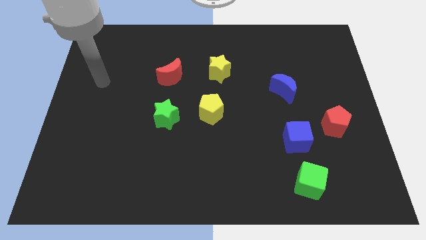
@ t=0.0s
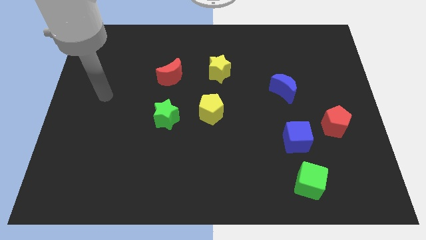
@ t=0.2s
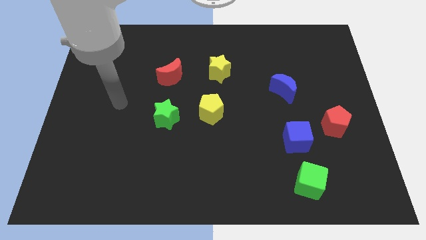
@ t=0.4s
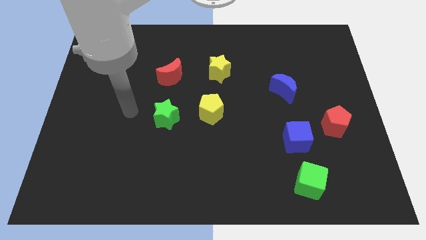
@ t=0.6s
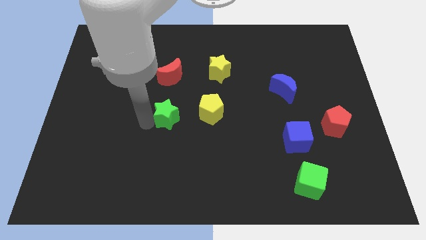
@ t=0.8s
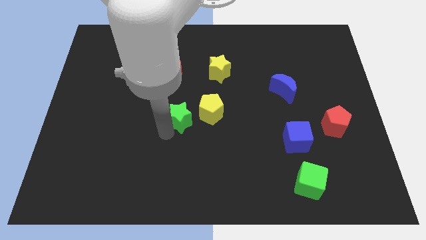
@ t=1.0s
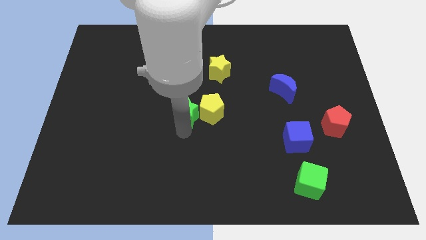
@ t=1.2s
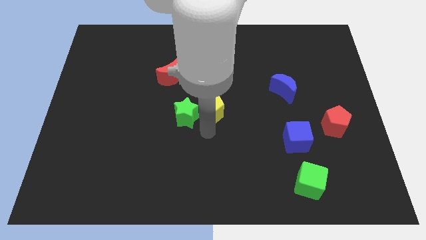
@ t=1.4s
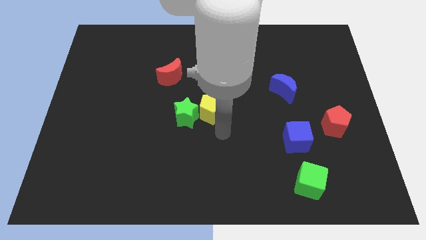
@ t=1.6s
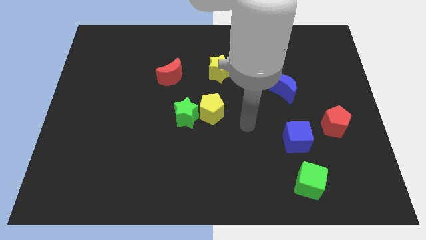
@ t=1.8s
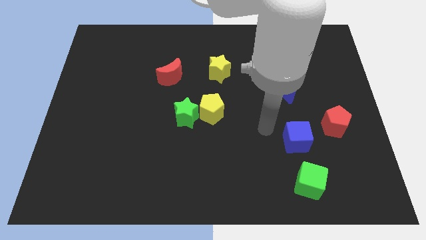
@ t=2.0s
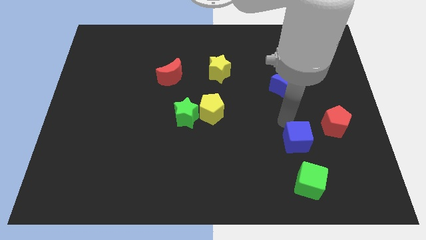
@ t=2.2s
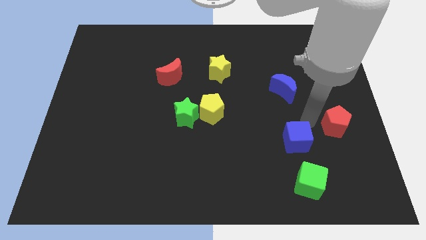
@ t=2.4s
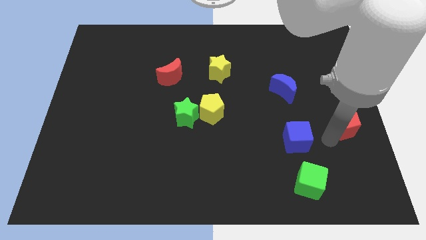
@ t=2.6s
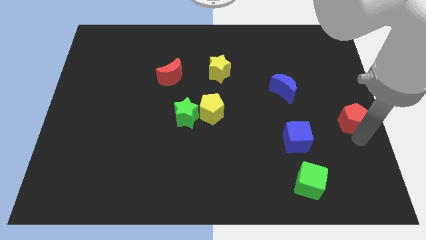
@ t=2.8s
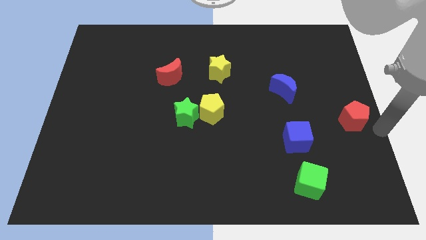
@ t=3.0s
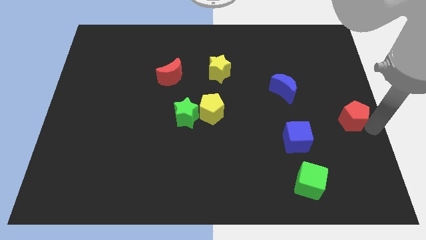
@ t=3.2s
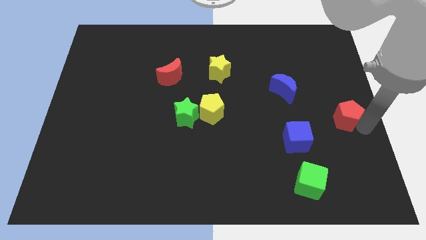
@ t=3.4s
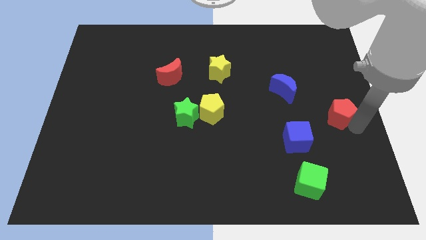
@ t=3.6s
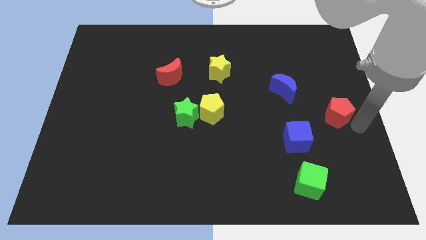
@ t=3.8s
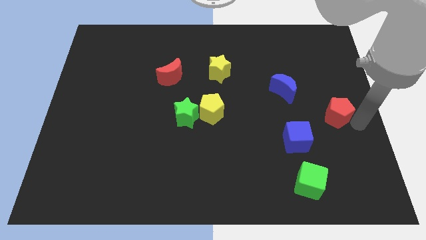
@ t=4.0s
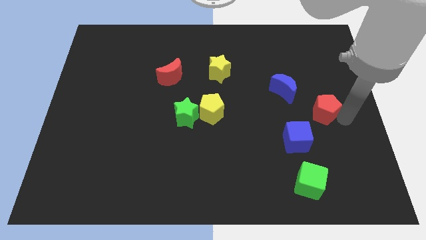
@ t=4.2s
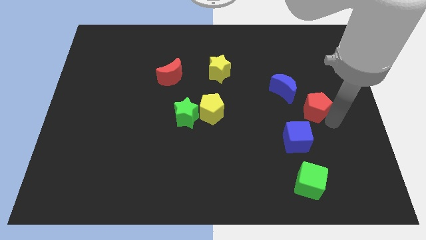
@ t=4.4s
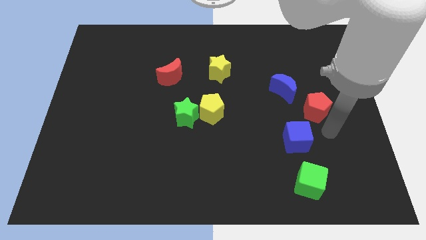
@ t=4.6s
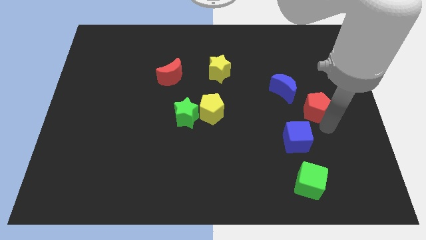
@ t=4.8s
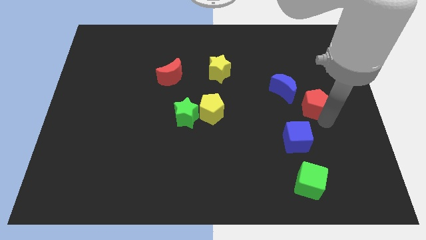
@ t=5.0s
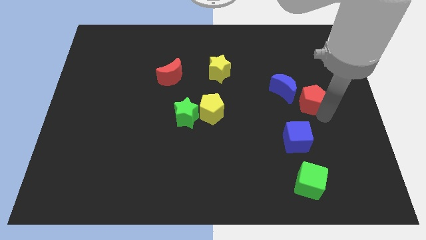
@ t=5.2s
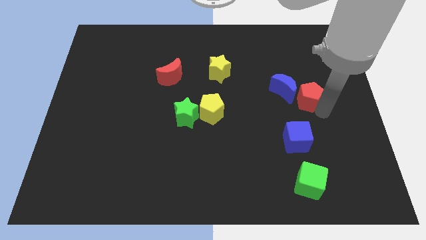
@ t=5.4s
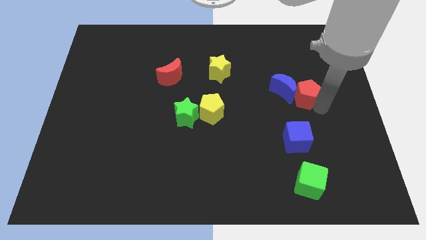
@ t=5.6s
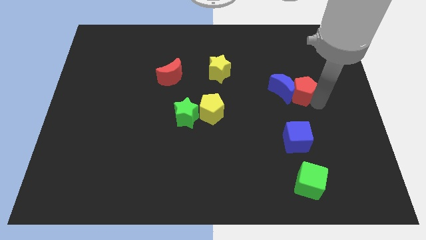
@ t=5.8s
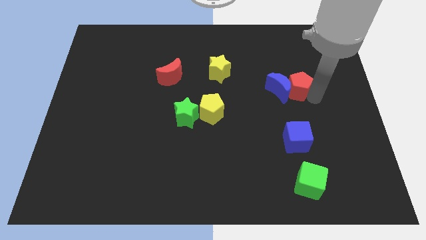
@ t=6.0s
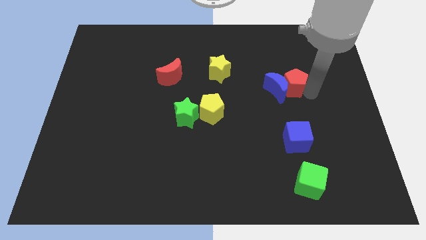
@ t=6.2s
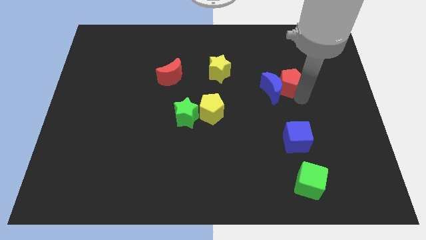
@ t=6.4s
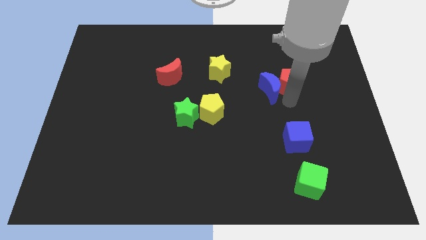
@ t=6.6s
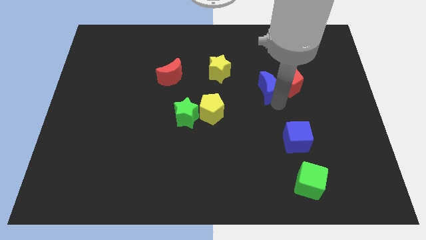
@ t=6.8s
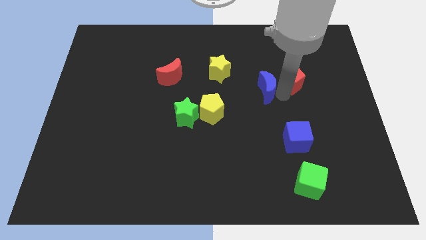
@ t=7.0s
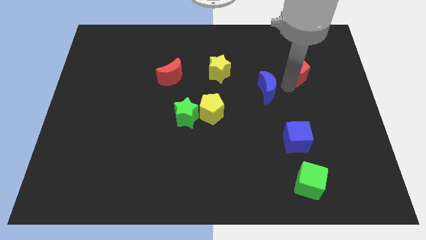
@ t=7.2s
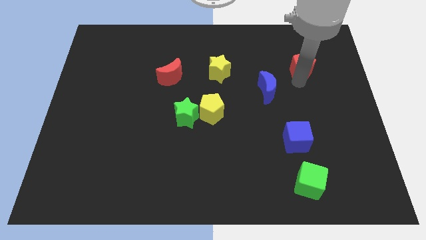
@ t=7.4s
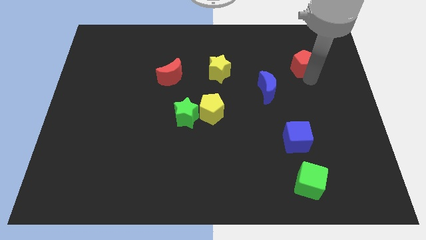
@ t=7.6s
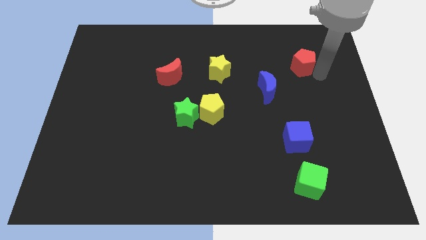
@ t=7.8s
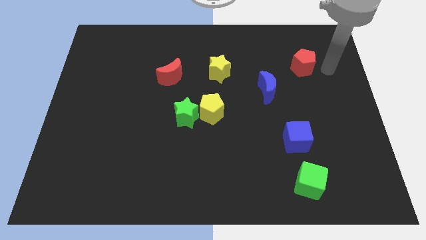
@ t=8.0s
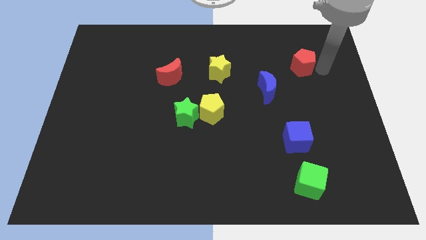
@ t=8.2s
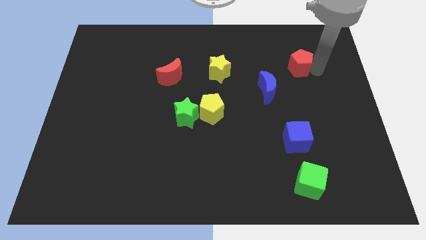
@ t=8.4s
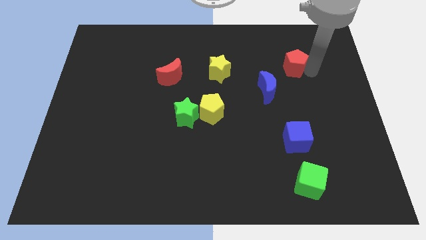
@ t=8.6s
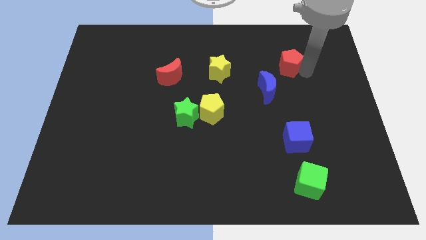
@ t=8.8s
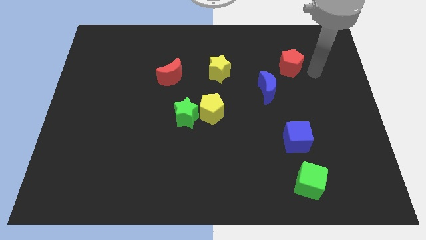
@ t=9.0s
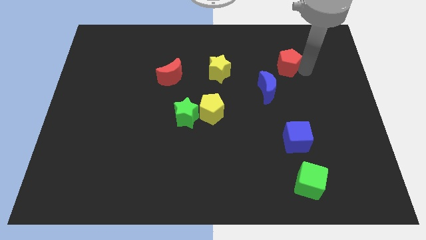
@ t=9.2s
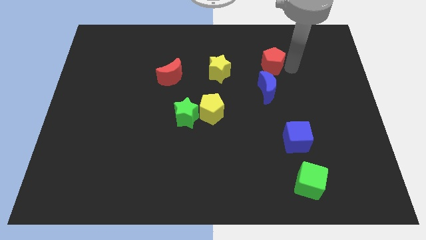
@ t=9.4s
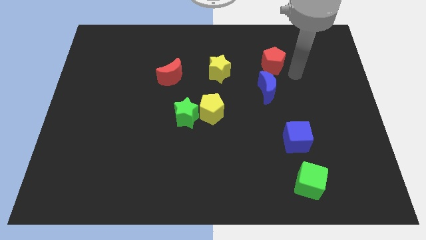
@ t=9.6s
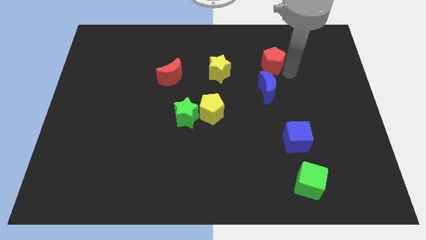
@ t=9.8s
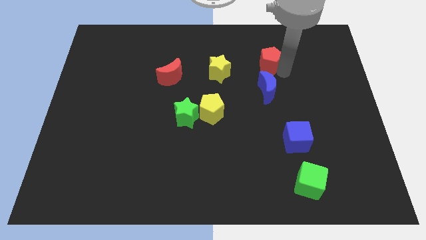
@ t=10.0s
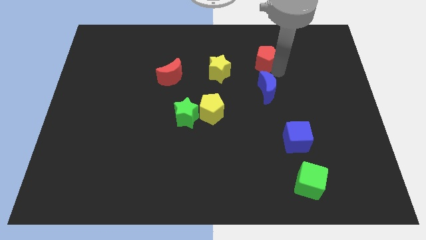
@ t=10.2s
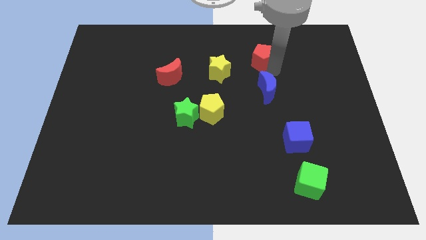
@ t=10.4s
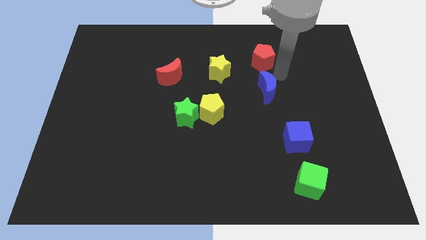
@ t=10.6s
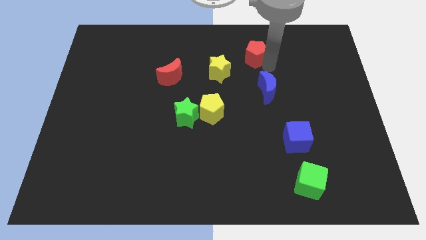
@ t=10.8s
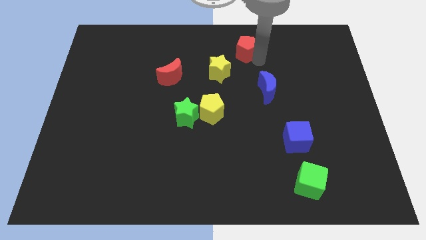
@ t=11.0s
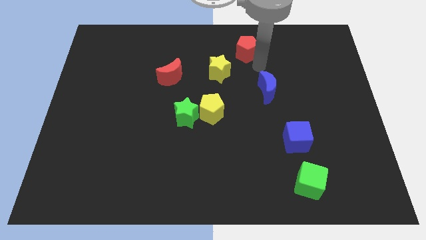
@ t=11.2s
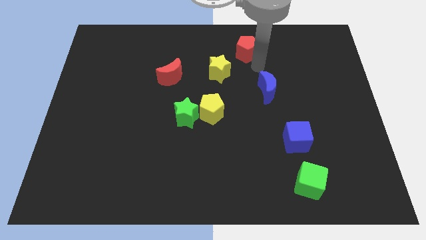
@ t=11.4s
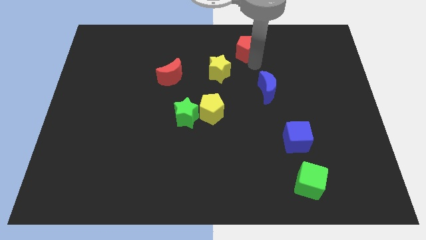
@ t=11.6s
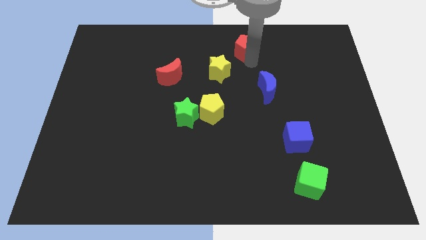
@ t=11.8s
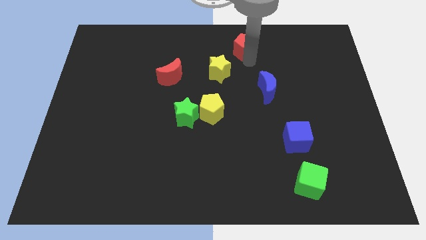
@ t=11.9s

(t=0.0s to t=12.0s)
put the red pentagon to the top side

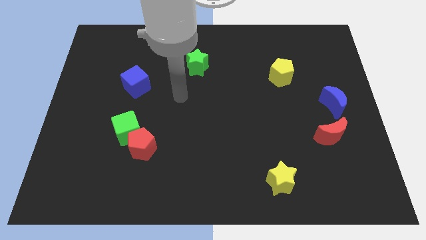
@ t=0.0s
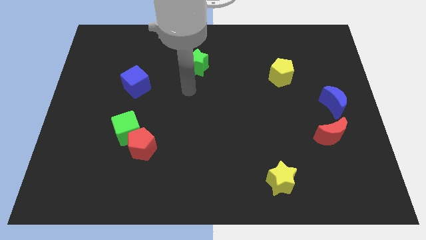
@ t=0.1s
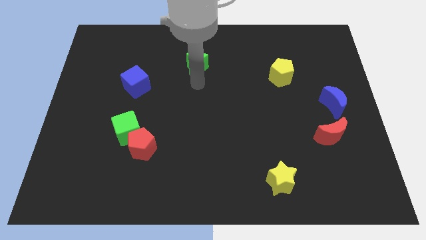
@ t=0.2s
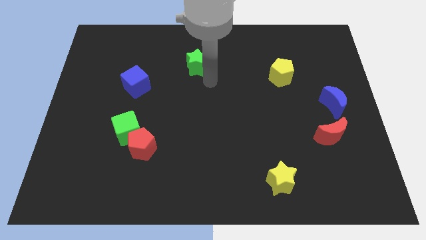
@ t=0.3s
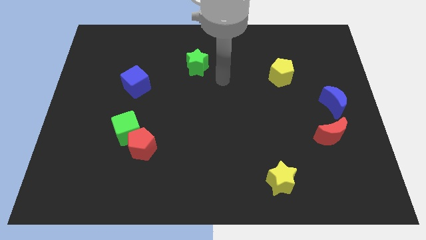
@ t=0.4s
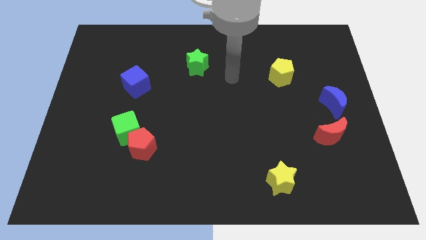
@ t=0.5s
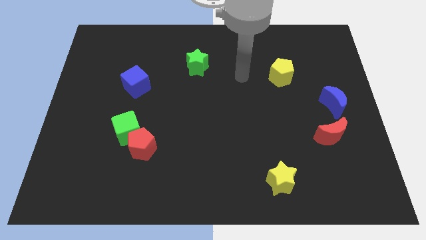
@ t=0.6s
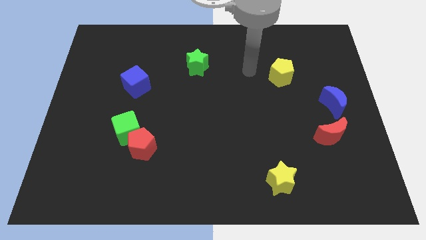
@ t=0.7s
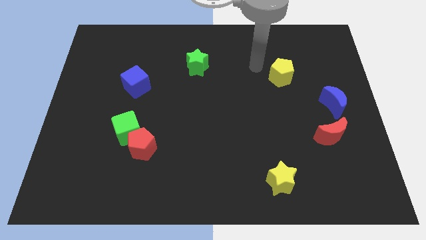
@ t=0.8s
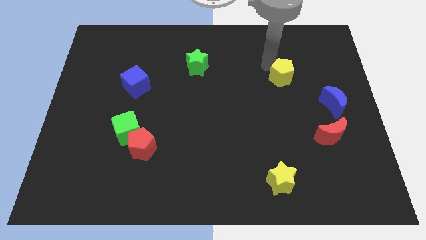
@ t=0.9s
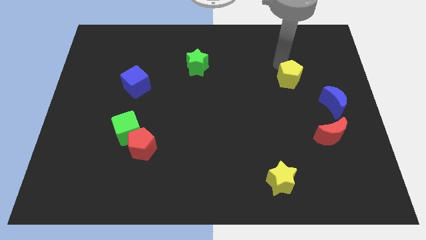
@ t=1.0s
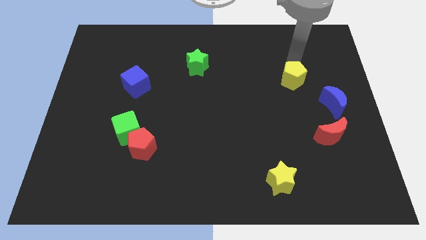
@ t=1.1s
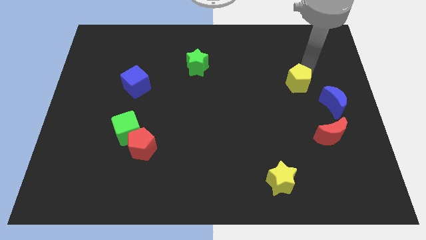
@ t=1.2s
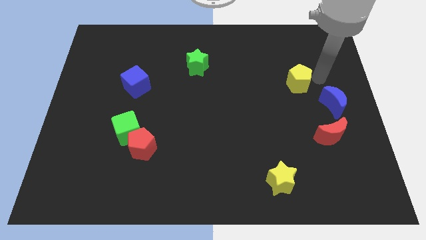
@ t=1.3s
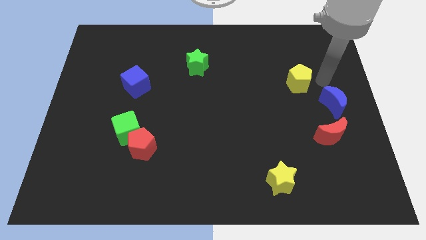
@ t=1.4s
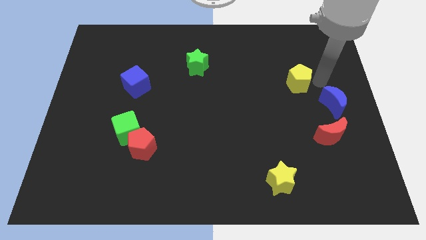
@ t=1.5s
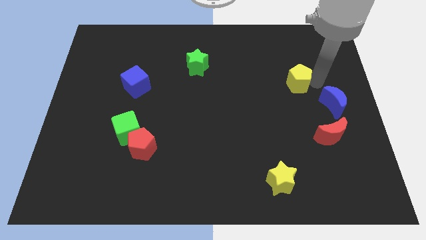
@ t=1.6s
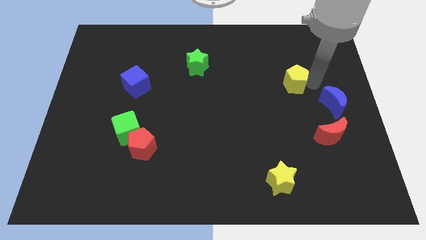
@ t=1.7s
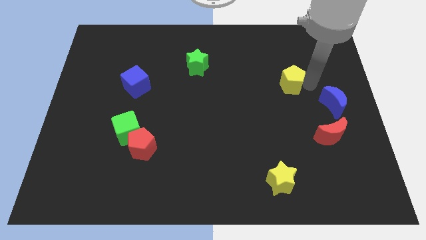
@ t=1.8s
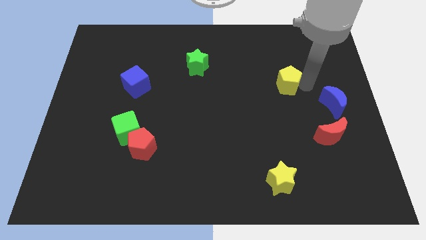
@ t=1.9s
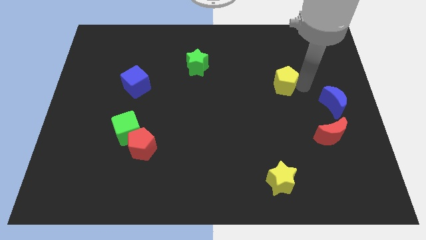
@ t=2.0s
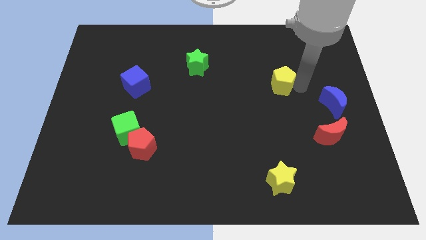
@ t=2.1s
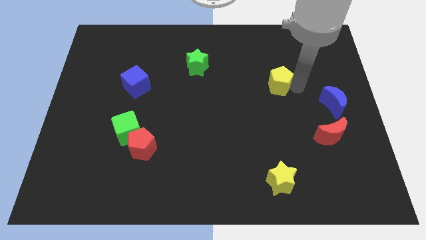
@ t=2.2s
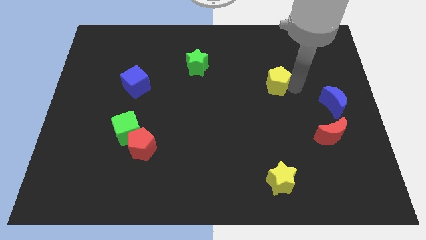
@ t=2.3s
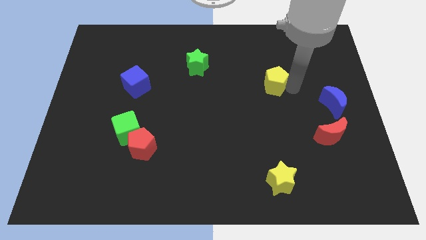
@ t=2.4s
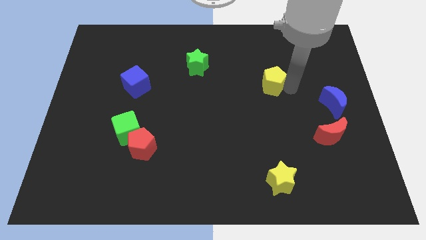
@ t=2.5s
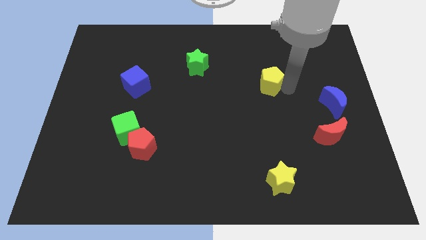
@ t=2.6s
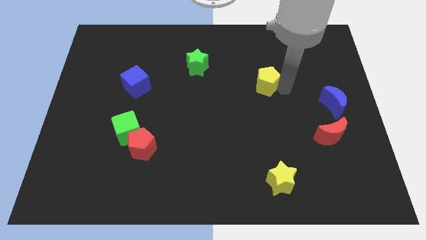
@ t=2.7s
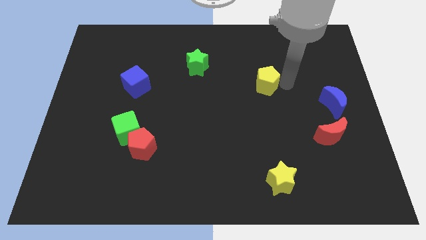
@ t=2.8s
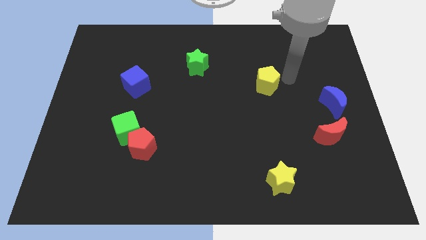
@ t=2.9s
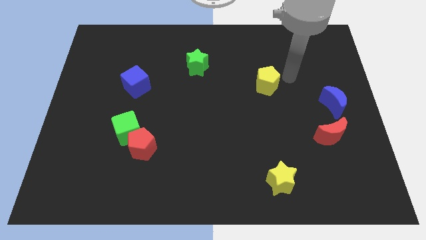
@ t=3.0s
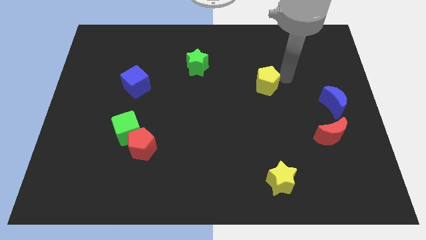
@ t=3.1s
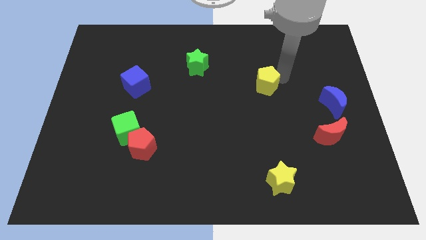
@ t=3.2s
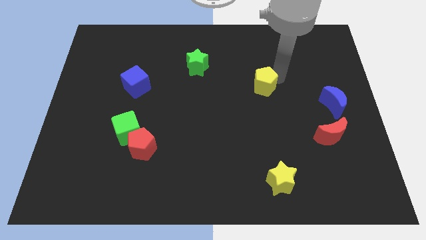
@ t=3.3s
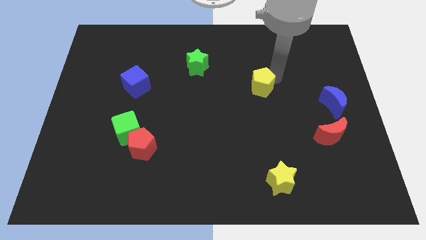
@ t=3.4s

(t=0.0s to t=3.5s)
push the yellow pentagon to the middle of the board
